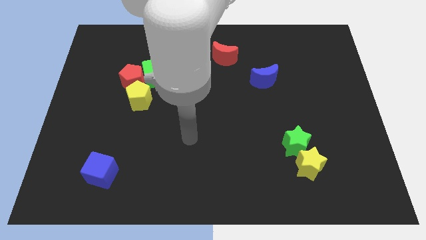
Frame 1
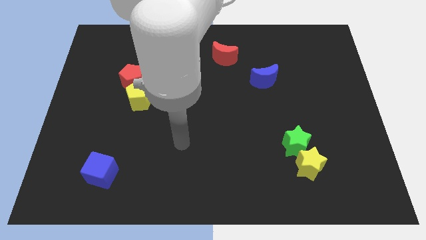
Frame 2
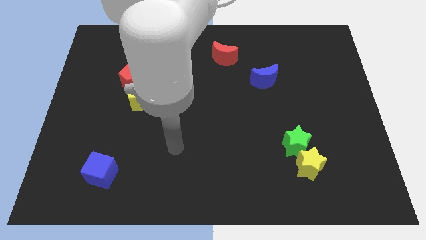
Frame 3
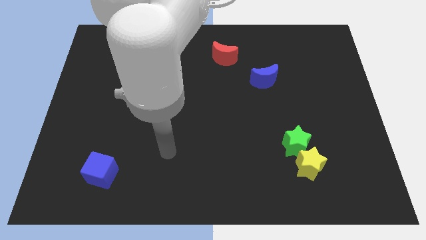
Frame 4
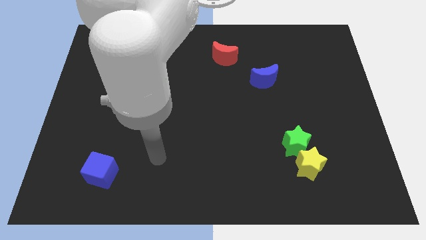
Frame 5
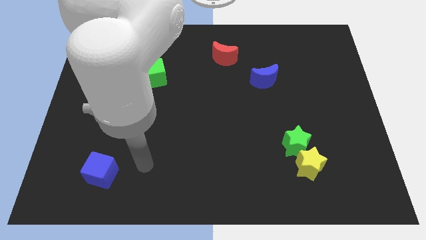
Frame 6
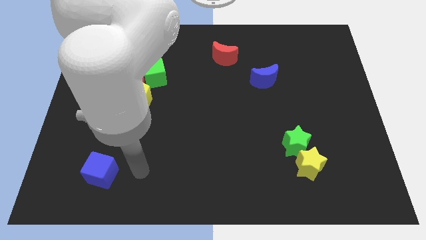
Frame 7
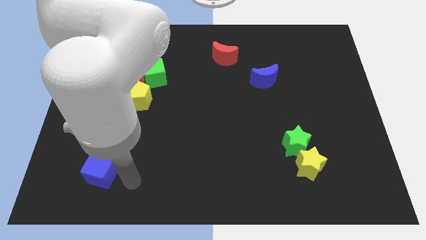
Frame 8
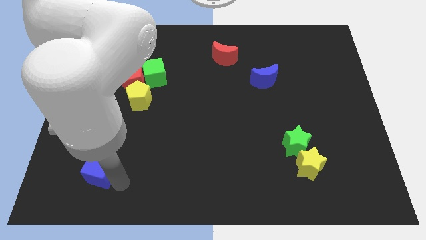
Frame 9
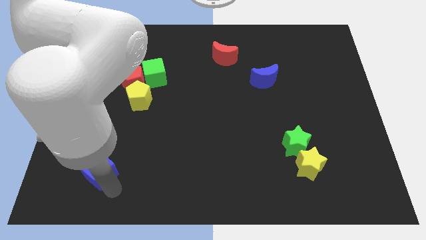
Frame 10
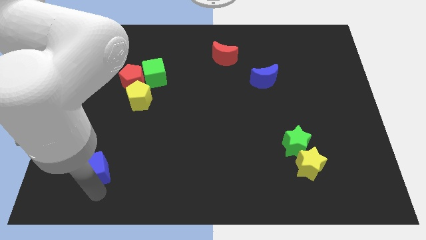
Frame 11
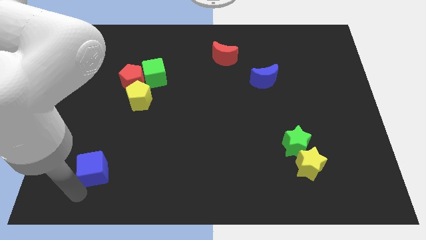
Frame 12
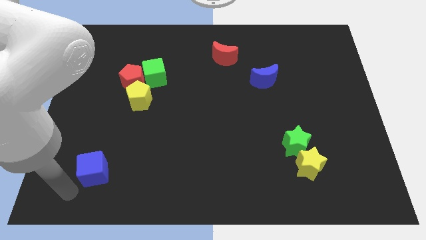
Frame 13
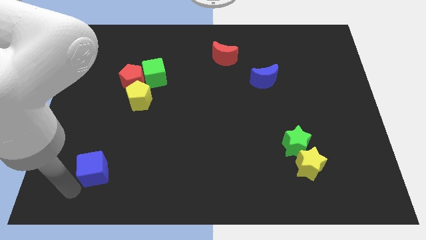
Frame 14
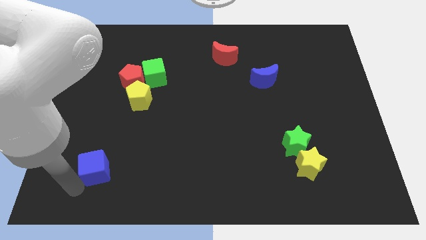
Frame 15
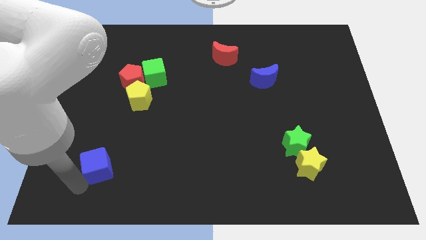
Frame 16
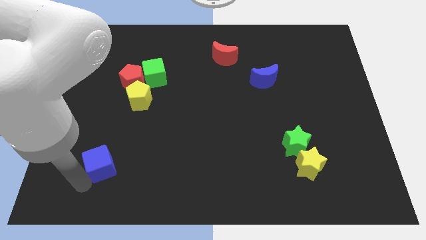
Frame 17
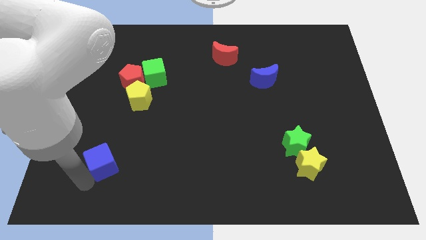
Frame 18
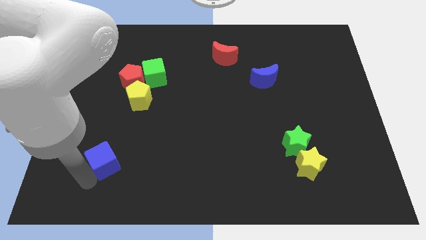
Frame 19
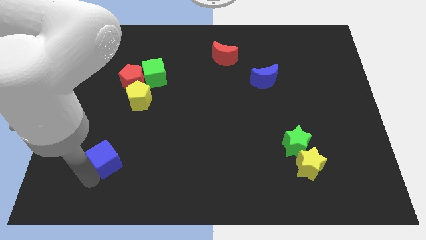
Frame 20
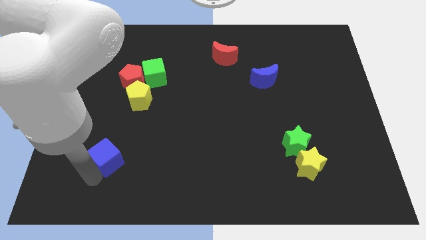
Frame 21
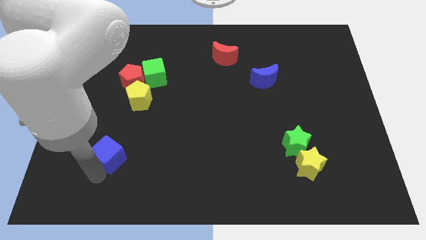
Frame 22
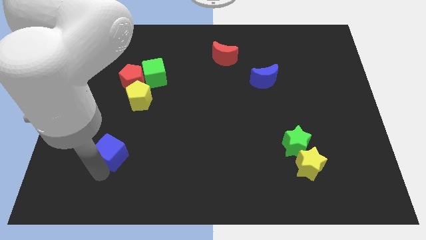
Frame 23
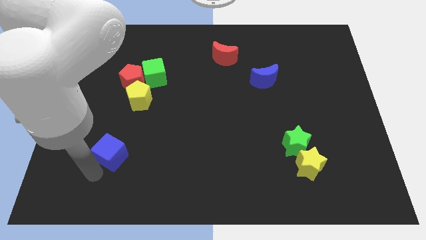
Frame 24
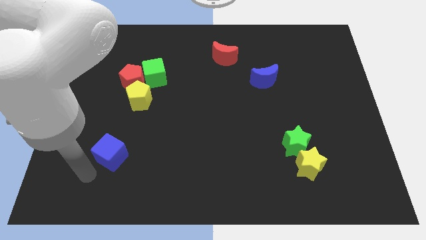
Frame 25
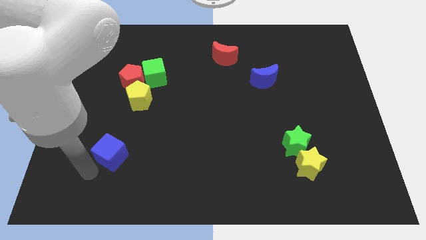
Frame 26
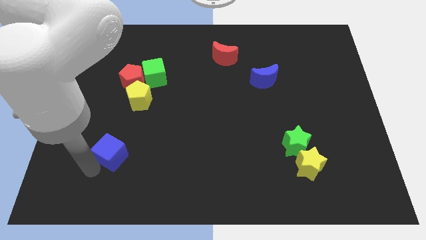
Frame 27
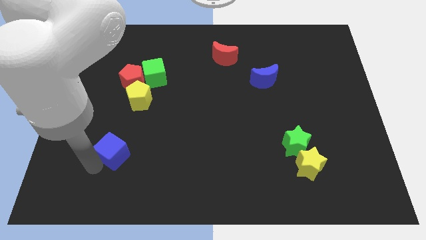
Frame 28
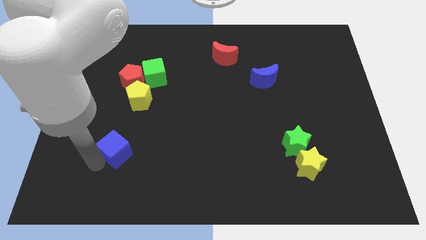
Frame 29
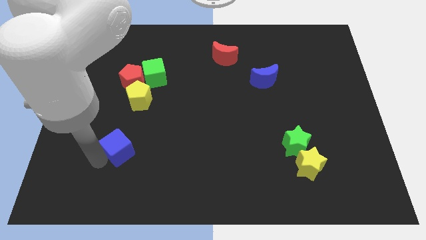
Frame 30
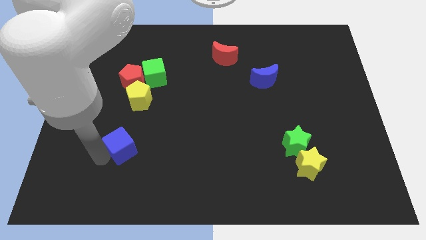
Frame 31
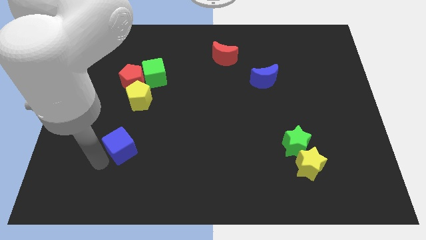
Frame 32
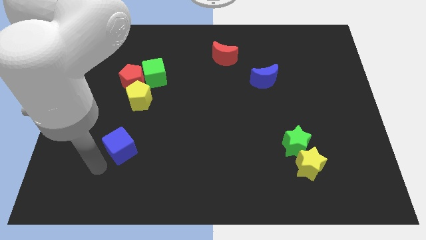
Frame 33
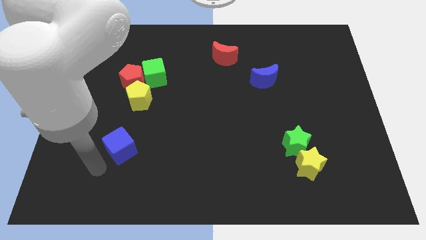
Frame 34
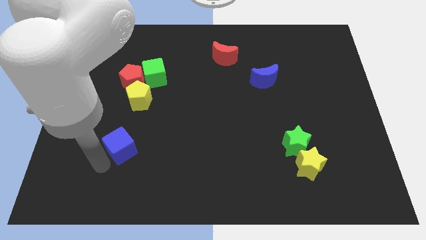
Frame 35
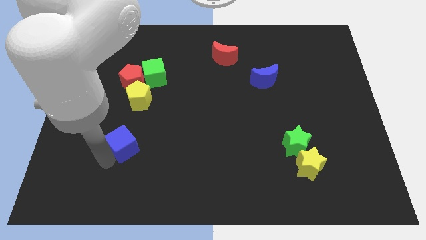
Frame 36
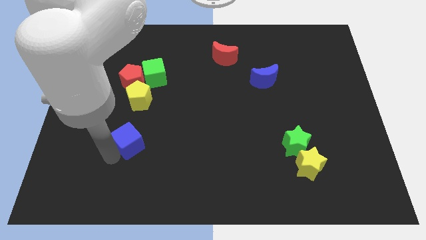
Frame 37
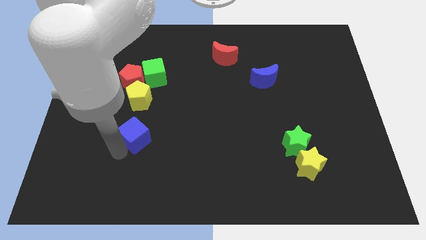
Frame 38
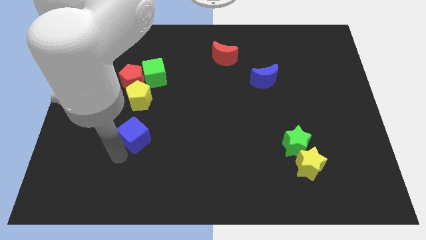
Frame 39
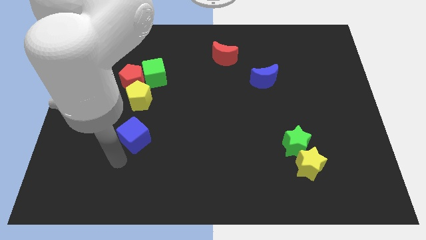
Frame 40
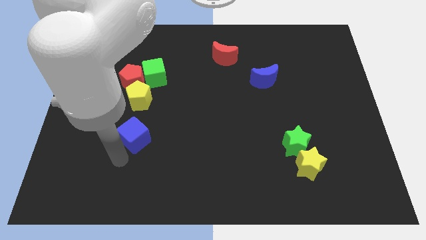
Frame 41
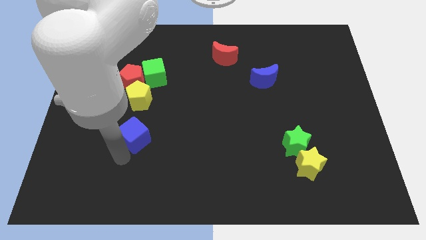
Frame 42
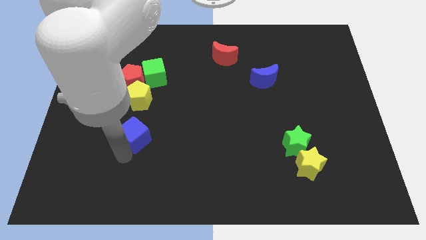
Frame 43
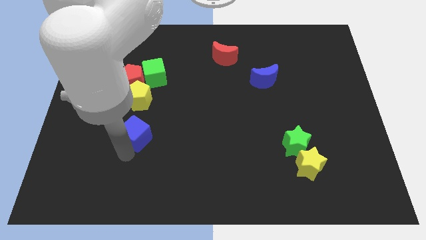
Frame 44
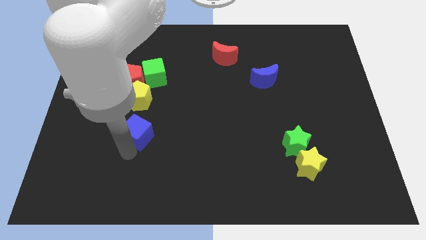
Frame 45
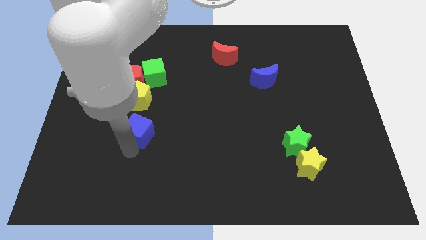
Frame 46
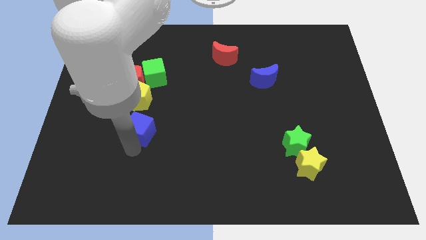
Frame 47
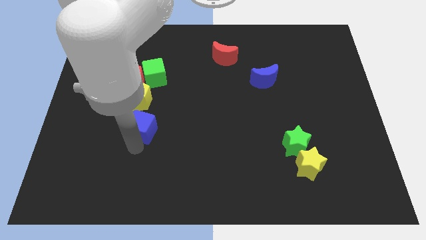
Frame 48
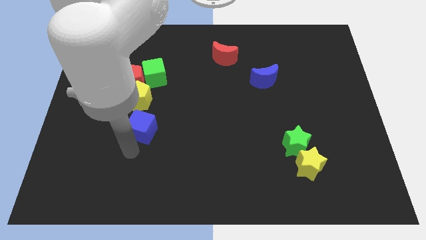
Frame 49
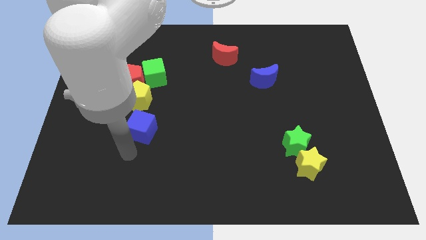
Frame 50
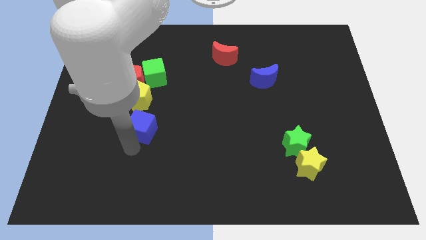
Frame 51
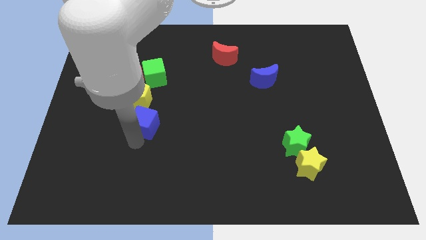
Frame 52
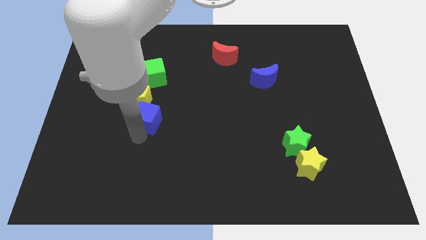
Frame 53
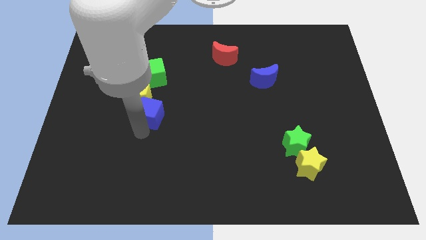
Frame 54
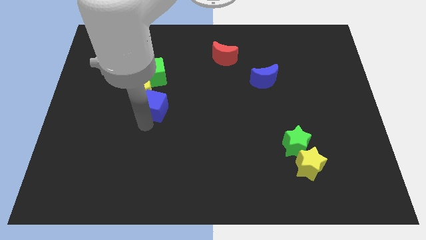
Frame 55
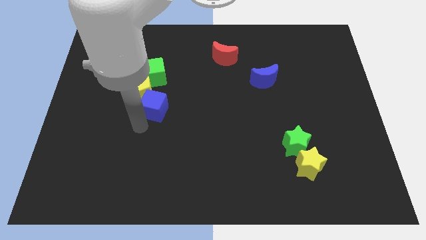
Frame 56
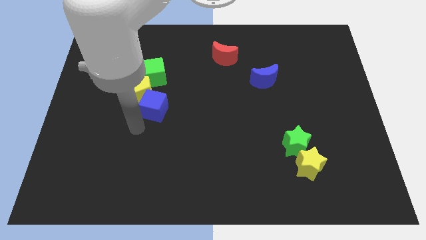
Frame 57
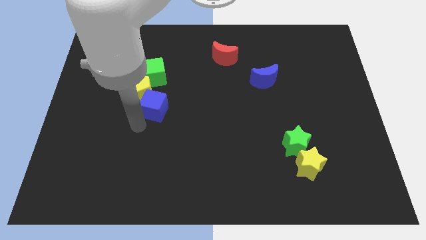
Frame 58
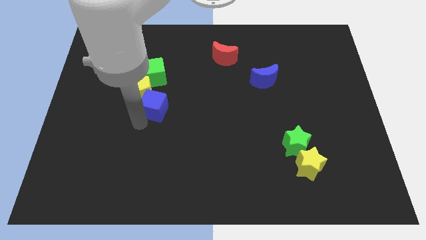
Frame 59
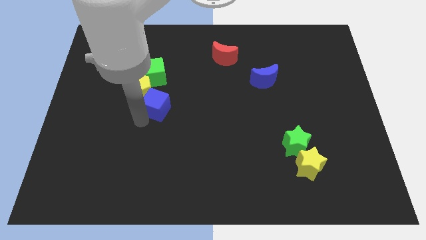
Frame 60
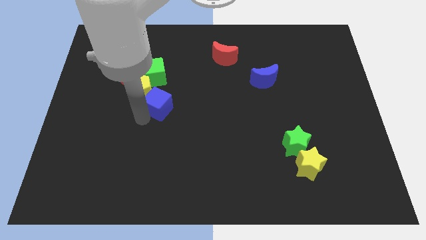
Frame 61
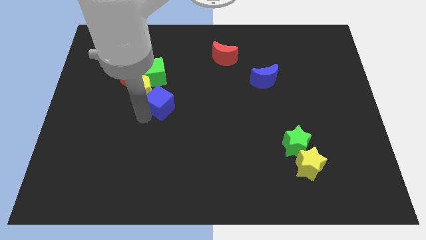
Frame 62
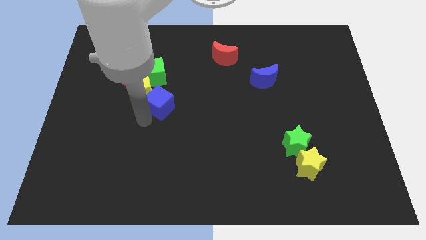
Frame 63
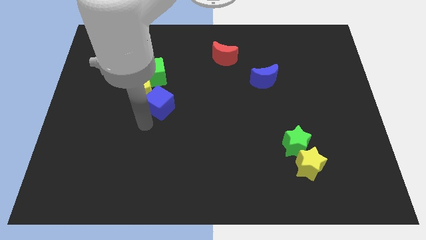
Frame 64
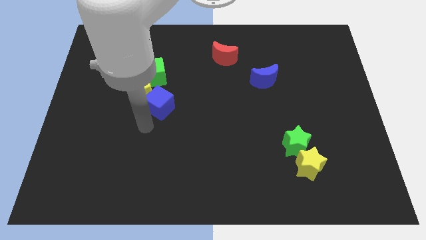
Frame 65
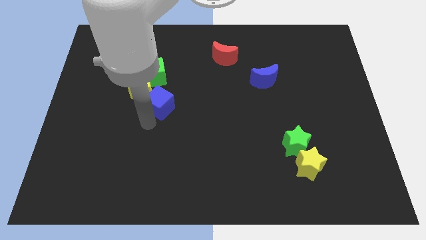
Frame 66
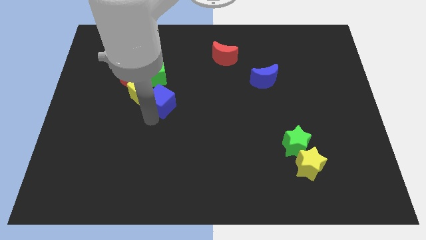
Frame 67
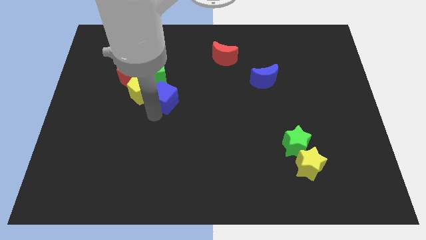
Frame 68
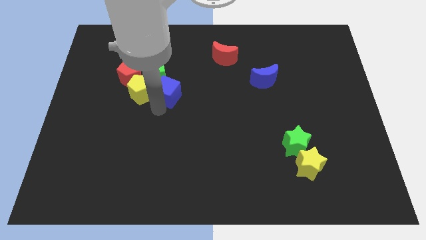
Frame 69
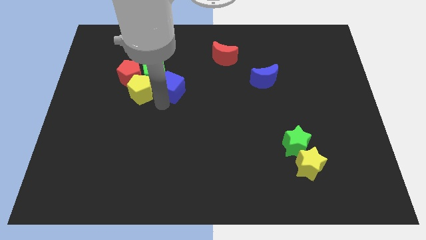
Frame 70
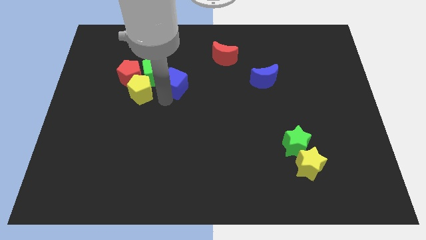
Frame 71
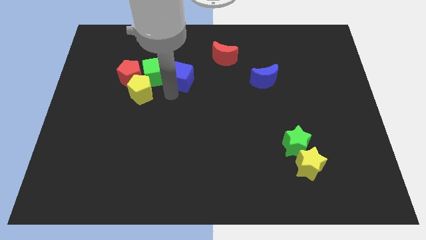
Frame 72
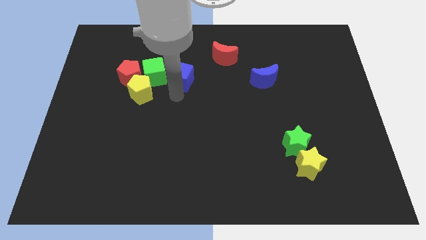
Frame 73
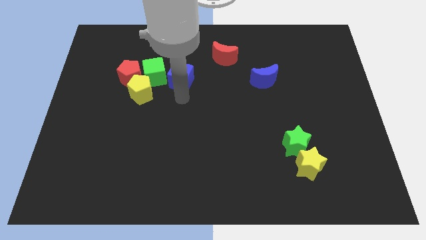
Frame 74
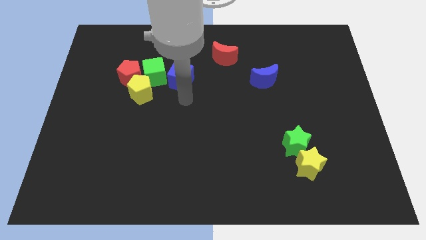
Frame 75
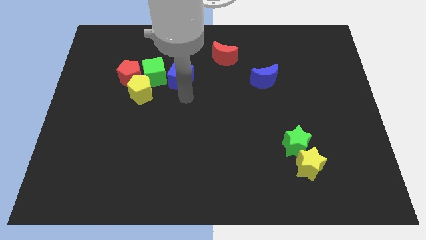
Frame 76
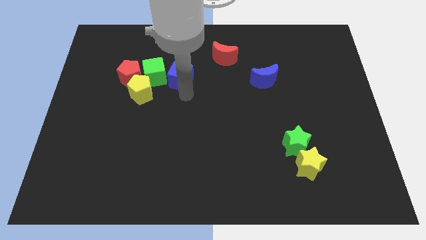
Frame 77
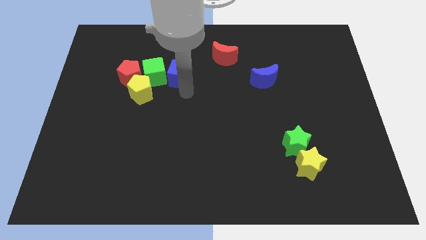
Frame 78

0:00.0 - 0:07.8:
put the blue cube to the top right of the green cube
